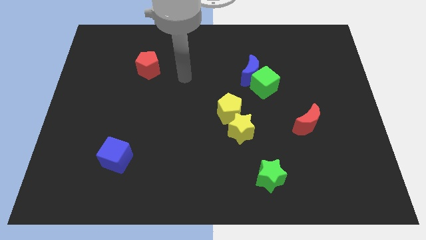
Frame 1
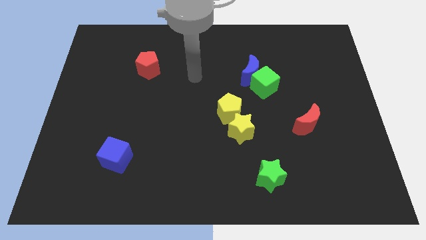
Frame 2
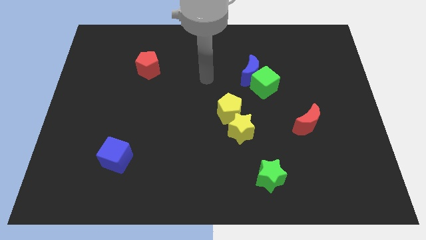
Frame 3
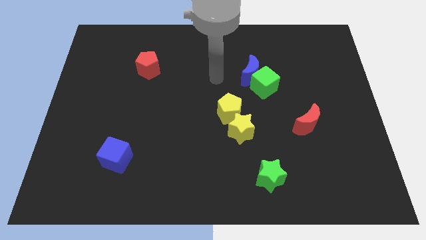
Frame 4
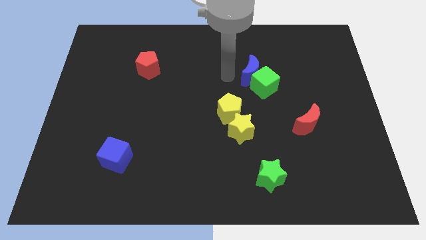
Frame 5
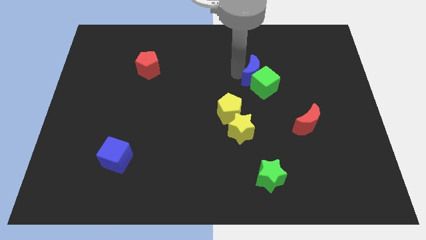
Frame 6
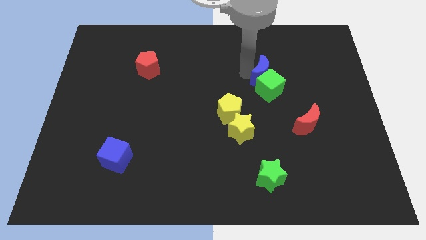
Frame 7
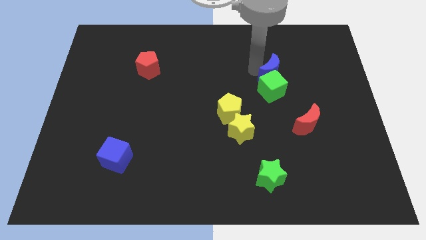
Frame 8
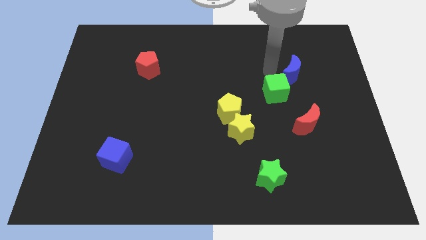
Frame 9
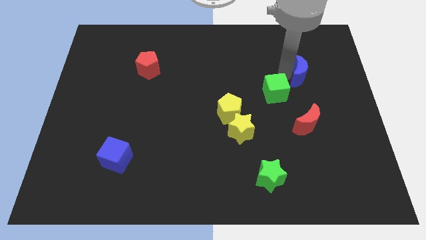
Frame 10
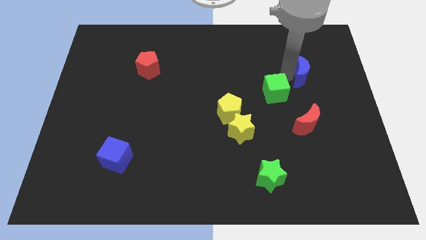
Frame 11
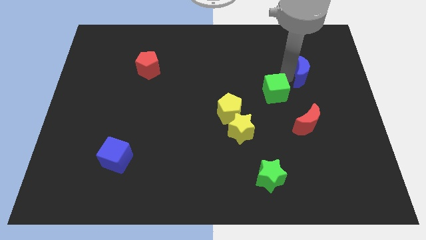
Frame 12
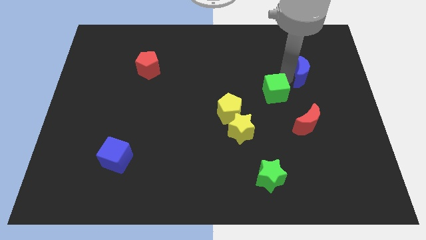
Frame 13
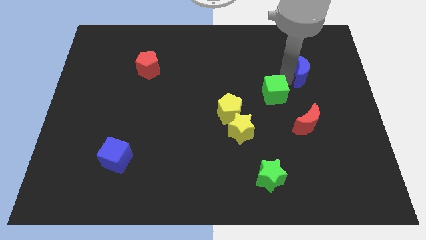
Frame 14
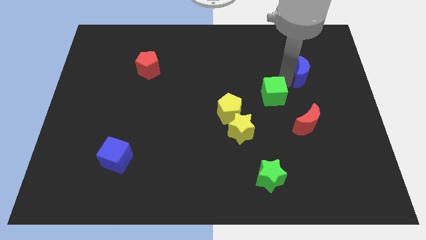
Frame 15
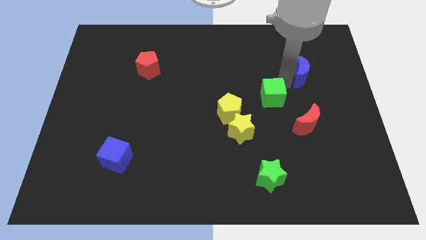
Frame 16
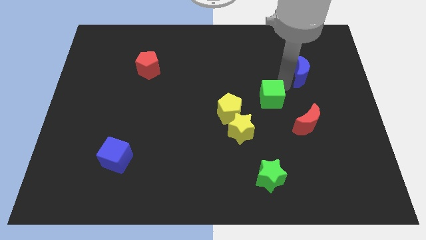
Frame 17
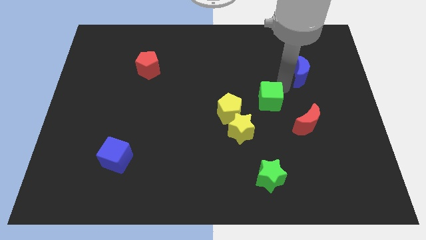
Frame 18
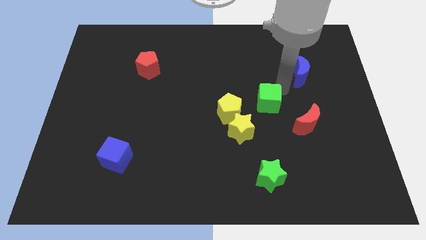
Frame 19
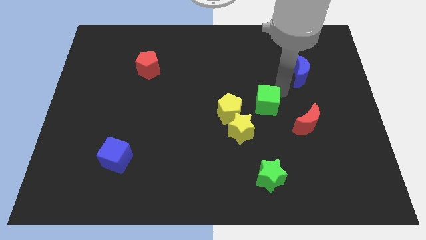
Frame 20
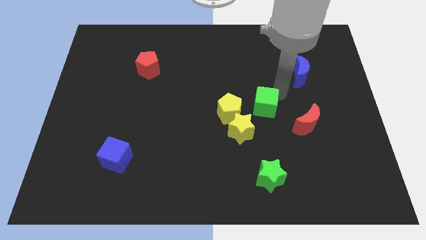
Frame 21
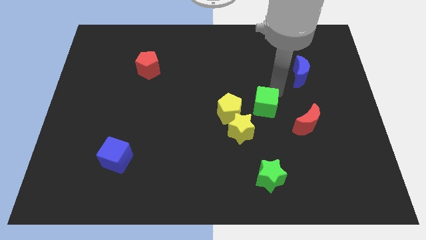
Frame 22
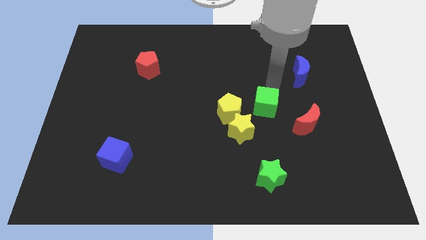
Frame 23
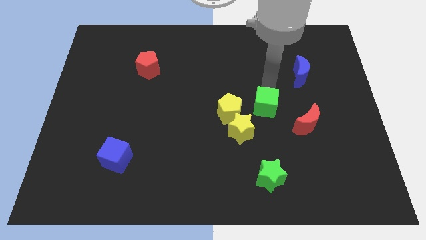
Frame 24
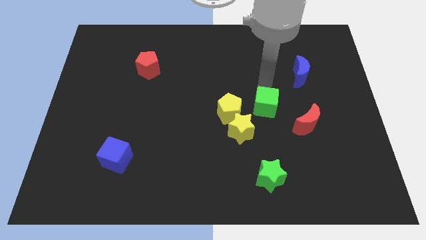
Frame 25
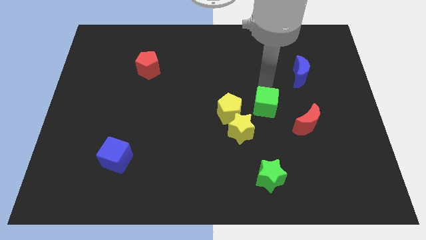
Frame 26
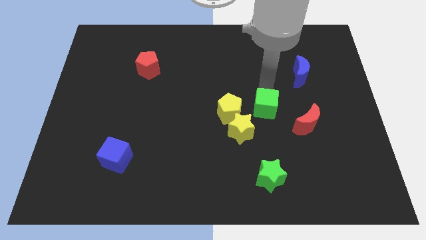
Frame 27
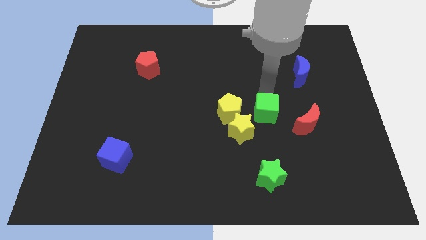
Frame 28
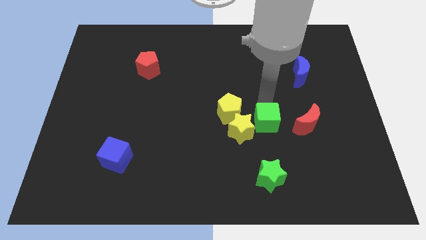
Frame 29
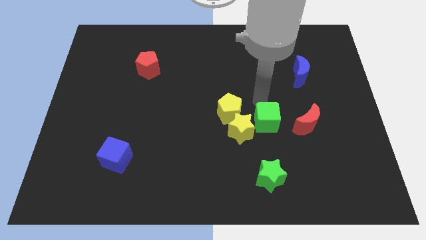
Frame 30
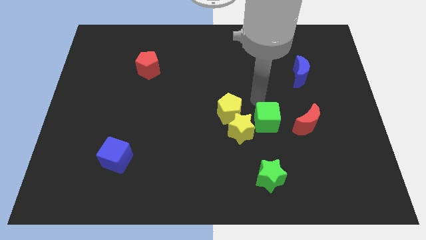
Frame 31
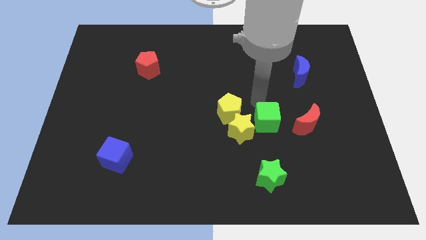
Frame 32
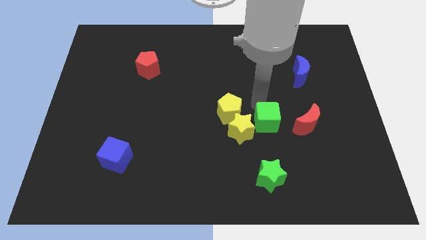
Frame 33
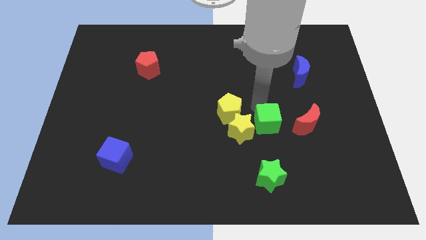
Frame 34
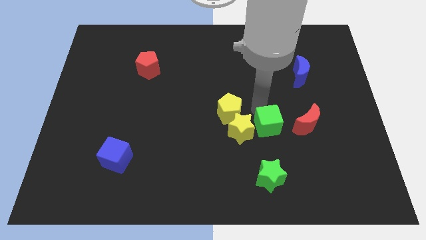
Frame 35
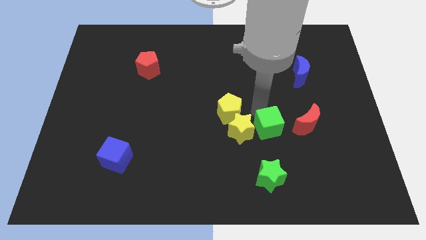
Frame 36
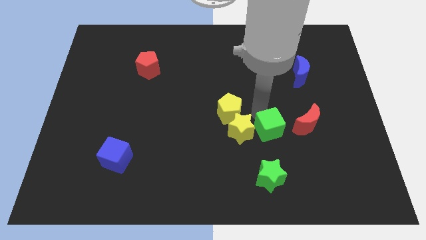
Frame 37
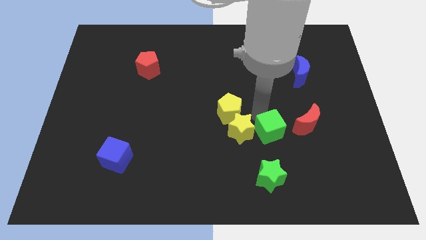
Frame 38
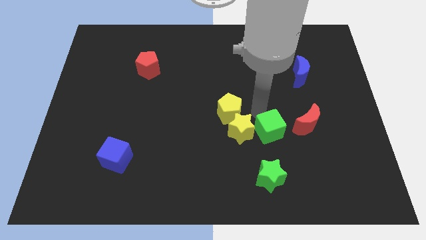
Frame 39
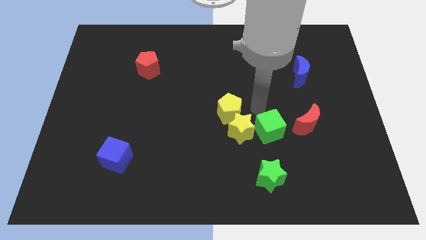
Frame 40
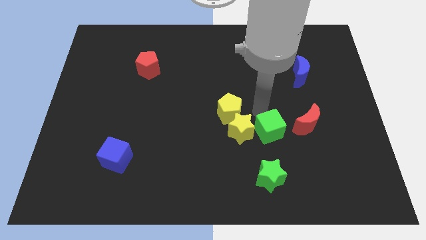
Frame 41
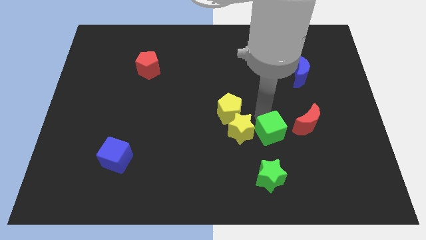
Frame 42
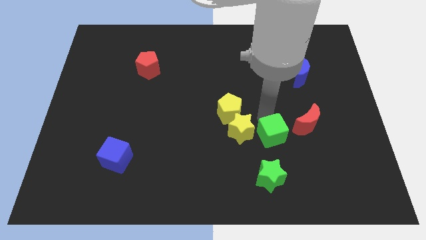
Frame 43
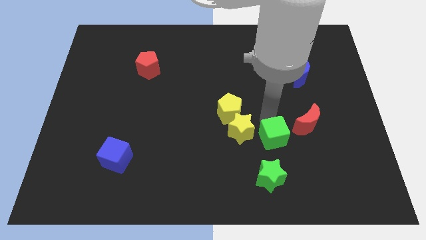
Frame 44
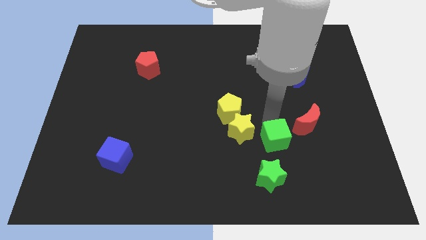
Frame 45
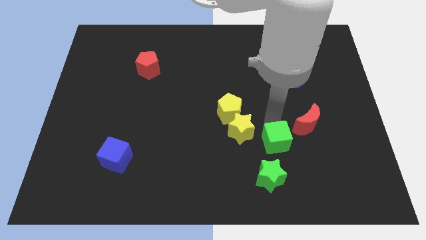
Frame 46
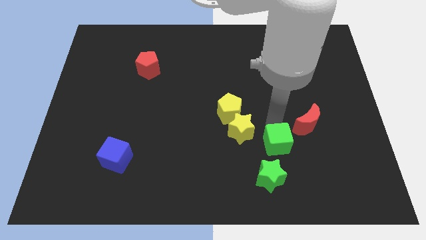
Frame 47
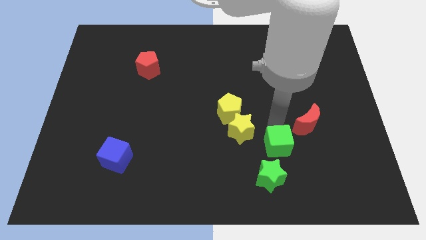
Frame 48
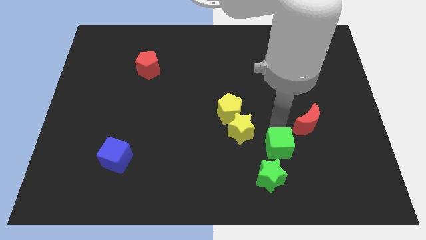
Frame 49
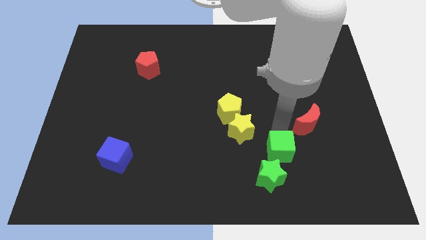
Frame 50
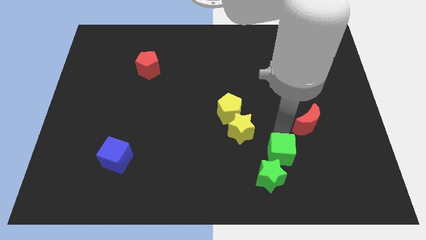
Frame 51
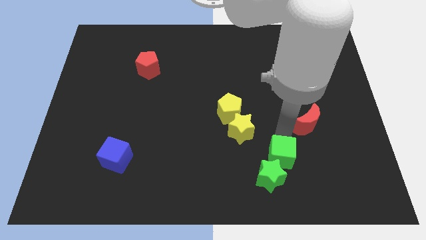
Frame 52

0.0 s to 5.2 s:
put the green cube close to the green star

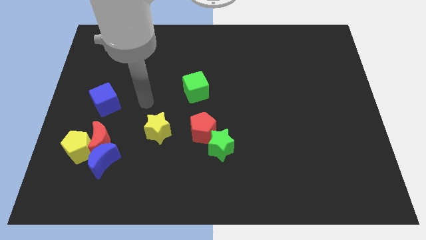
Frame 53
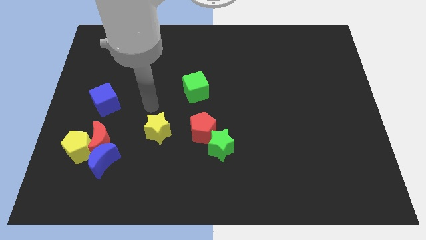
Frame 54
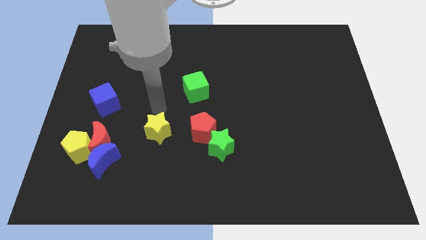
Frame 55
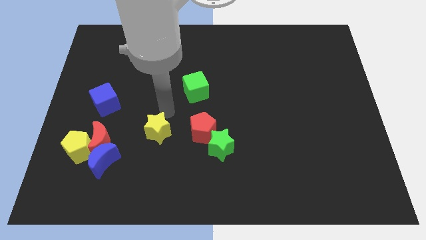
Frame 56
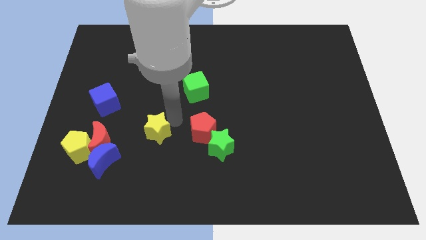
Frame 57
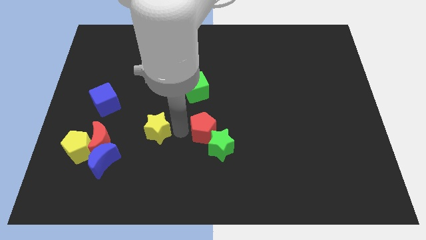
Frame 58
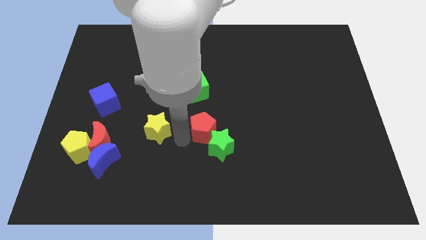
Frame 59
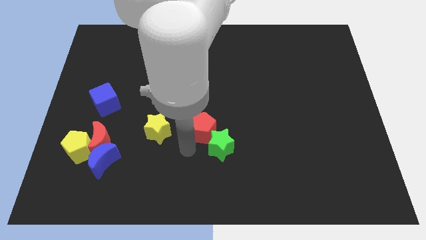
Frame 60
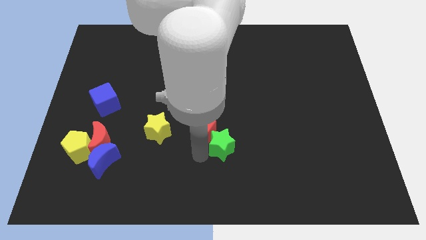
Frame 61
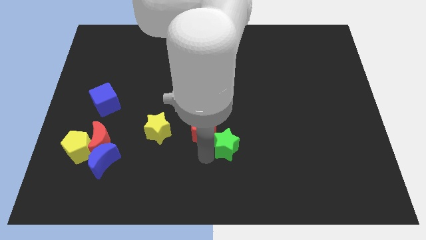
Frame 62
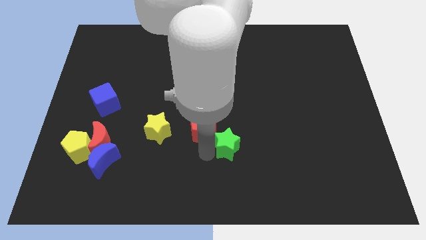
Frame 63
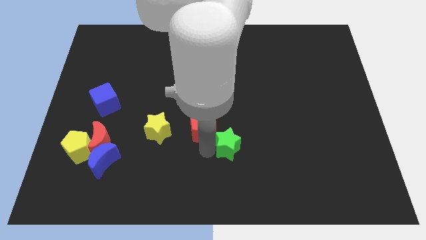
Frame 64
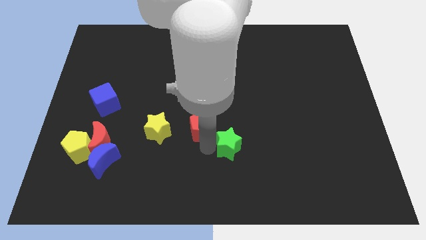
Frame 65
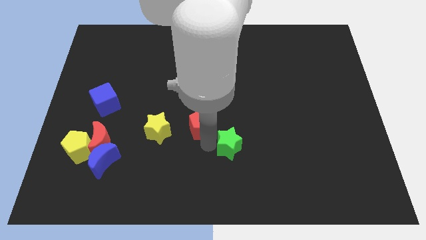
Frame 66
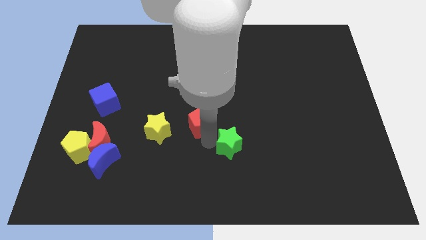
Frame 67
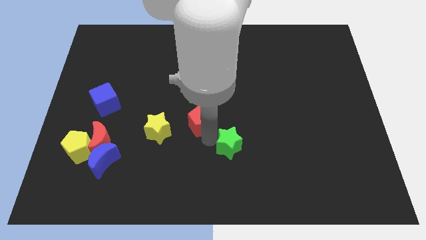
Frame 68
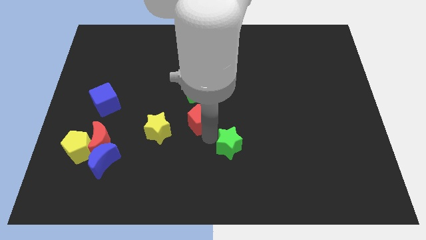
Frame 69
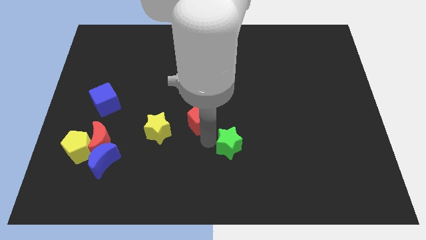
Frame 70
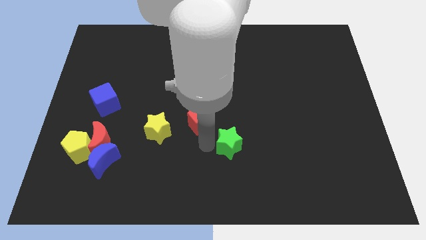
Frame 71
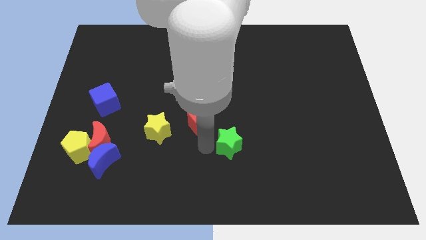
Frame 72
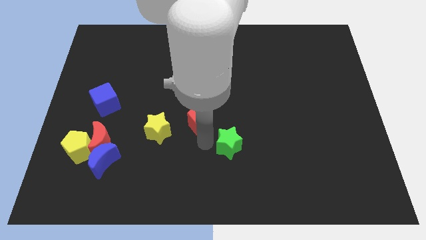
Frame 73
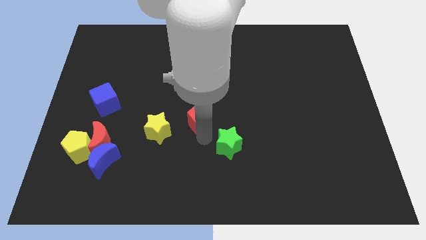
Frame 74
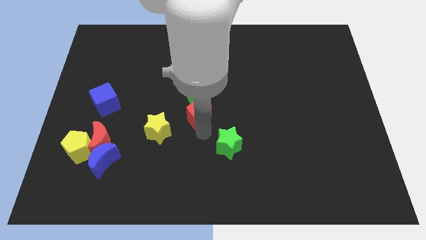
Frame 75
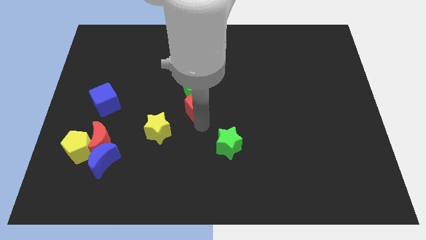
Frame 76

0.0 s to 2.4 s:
push the red pentagon next to the green cube
